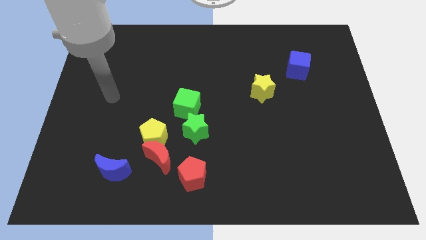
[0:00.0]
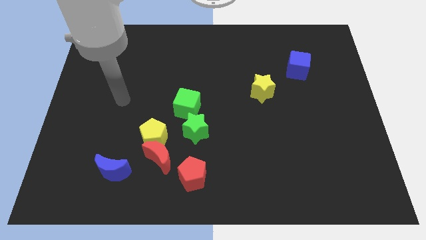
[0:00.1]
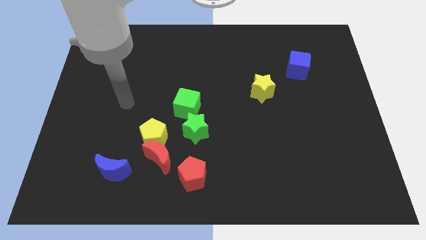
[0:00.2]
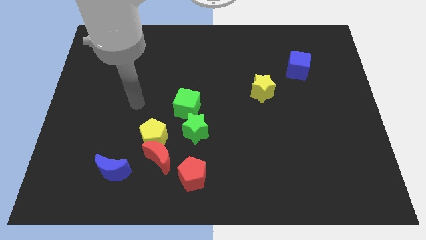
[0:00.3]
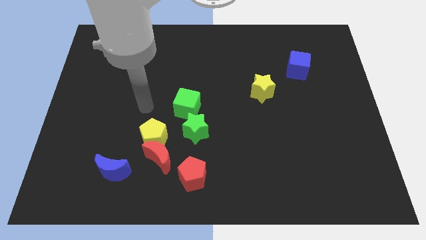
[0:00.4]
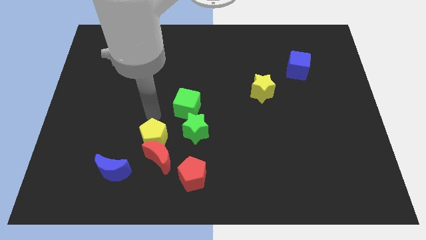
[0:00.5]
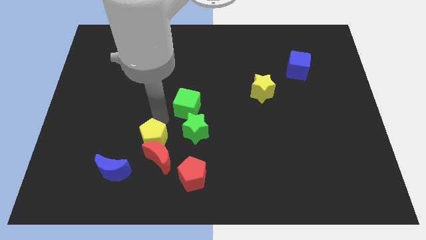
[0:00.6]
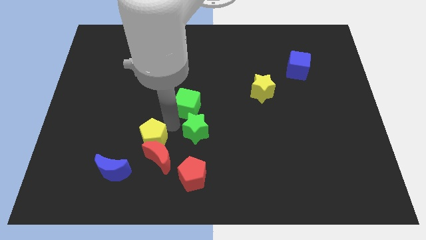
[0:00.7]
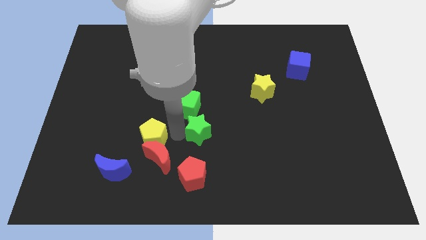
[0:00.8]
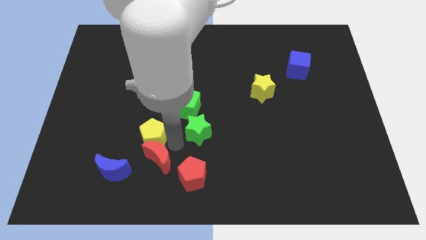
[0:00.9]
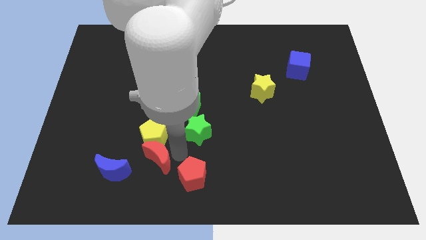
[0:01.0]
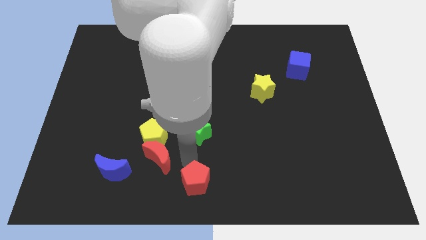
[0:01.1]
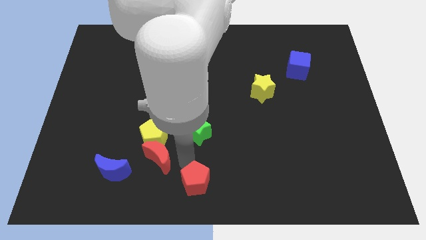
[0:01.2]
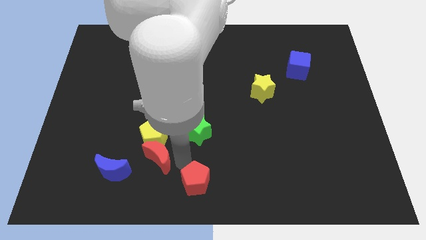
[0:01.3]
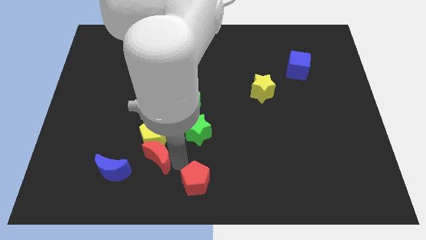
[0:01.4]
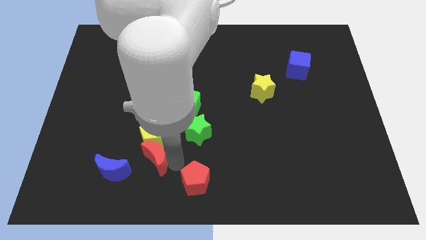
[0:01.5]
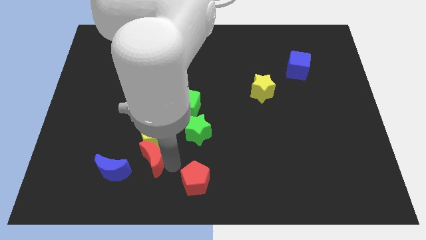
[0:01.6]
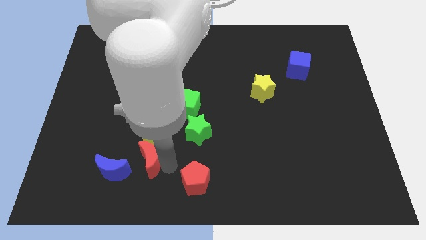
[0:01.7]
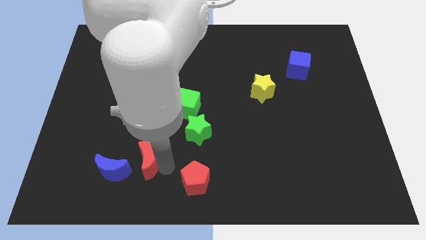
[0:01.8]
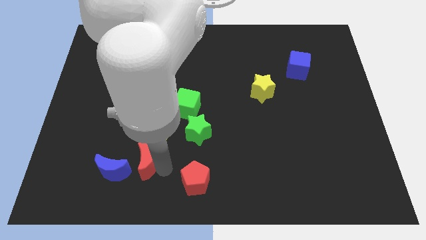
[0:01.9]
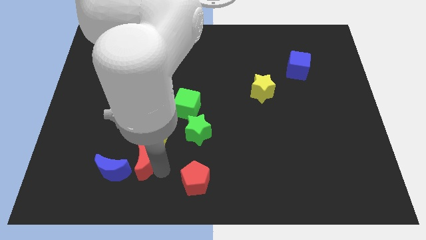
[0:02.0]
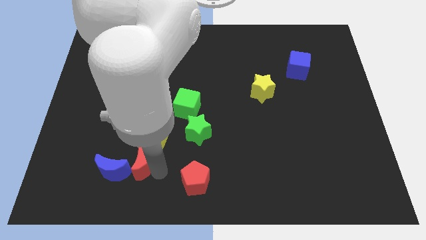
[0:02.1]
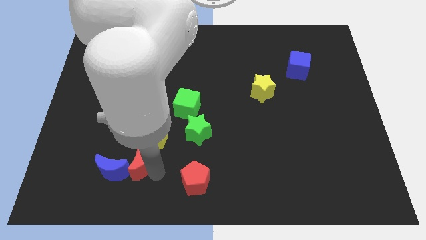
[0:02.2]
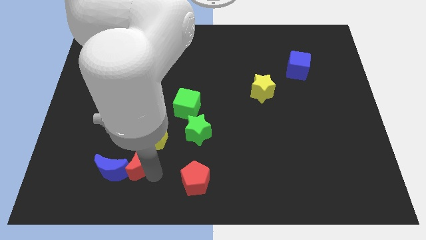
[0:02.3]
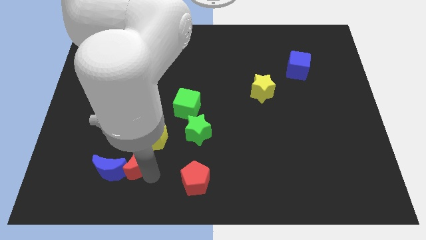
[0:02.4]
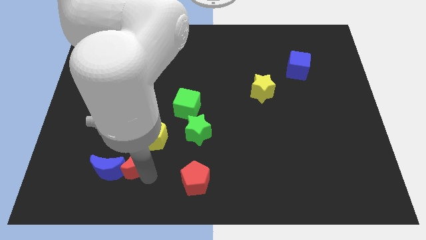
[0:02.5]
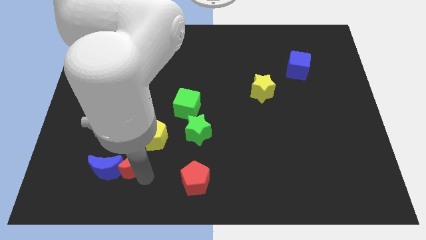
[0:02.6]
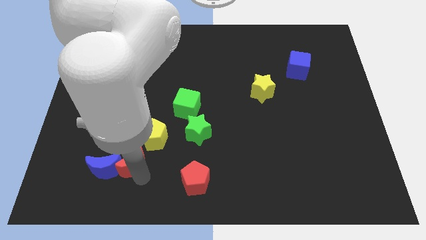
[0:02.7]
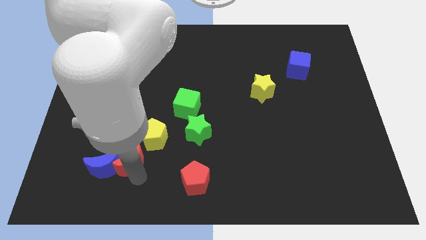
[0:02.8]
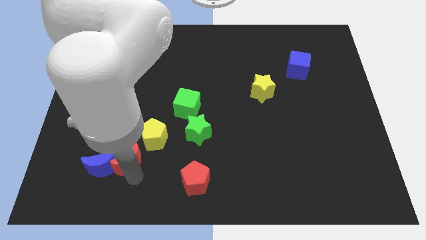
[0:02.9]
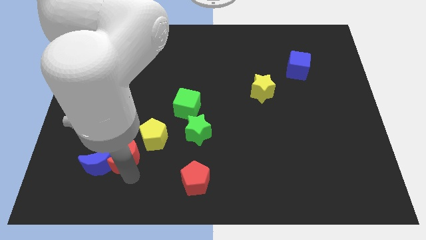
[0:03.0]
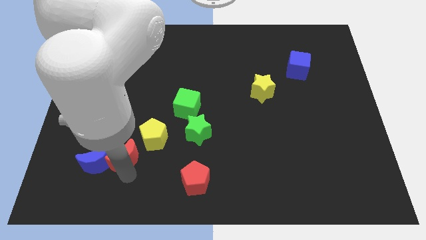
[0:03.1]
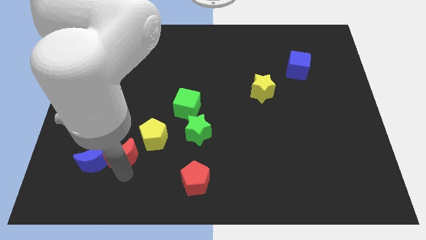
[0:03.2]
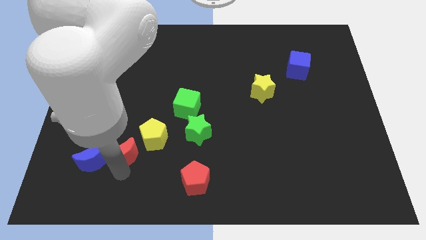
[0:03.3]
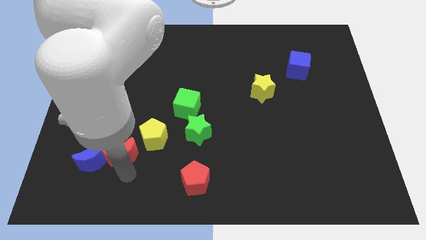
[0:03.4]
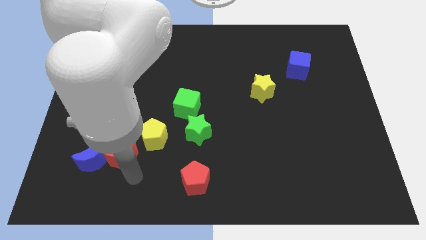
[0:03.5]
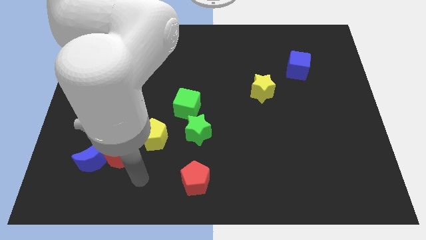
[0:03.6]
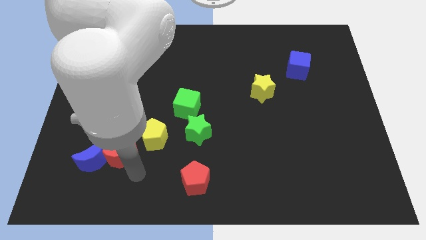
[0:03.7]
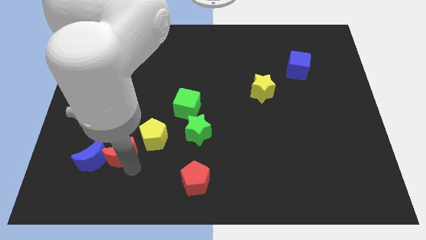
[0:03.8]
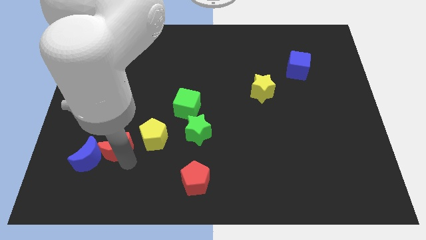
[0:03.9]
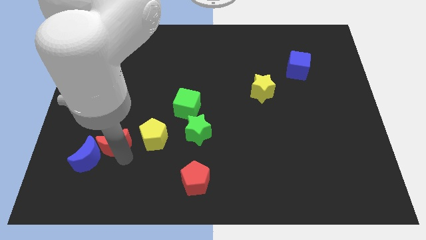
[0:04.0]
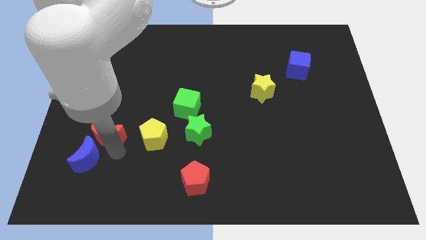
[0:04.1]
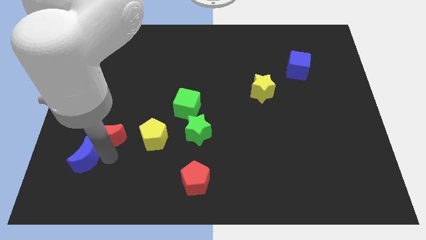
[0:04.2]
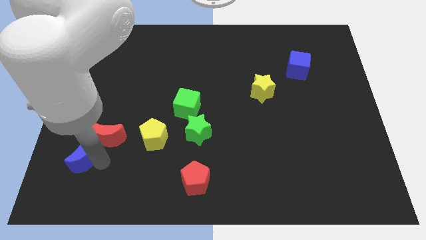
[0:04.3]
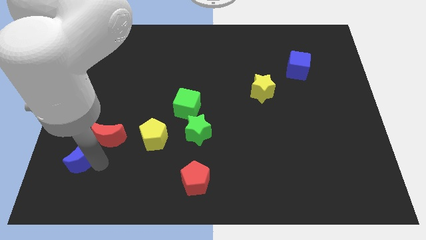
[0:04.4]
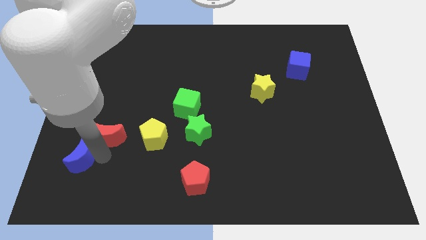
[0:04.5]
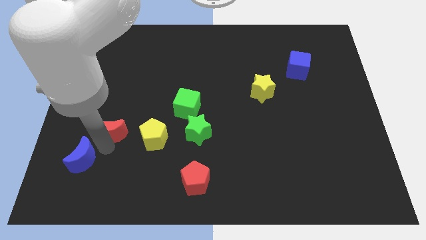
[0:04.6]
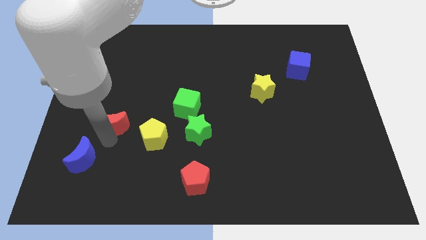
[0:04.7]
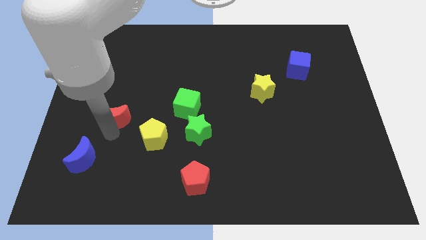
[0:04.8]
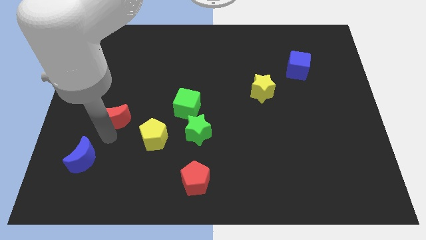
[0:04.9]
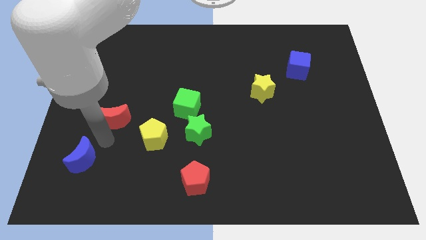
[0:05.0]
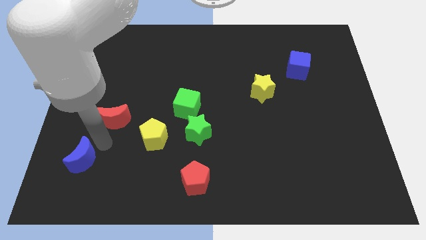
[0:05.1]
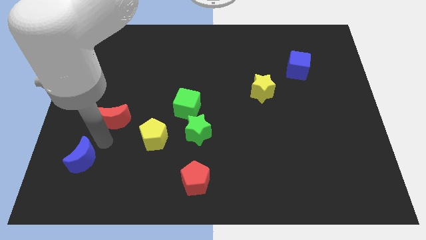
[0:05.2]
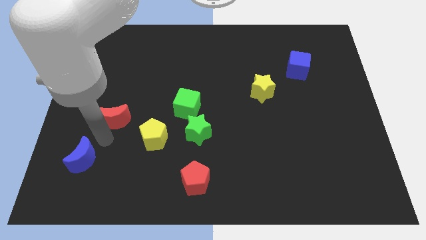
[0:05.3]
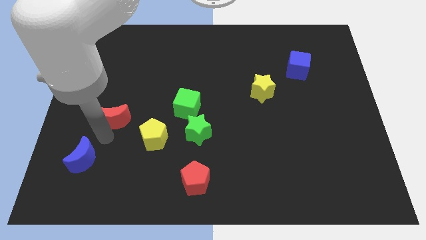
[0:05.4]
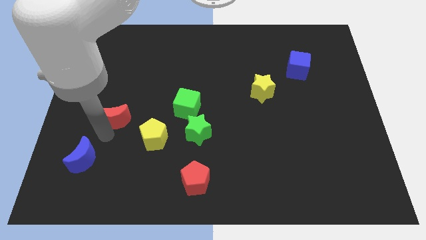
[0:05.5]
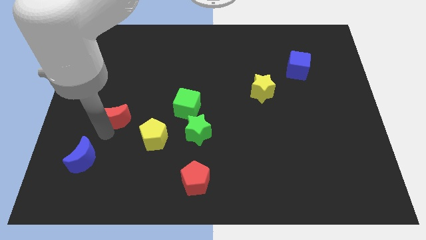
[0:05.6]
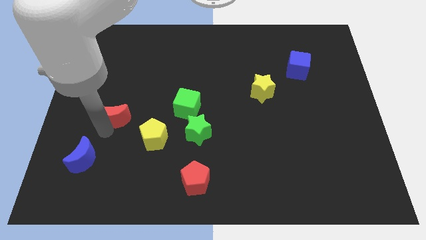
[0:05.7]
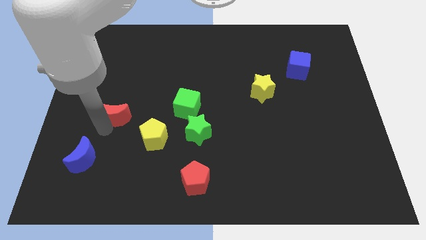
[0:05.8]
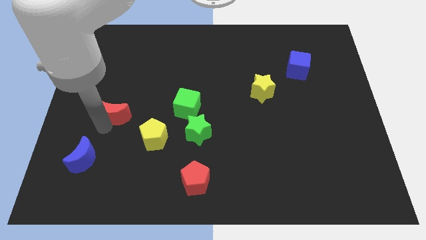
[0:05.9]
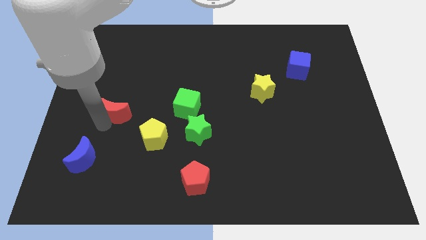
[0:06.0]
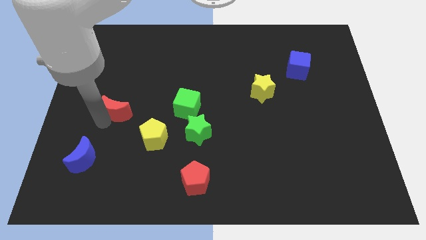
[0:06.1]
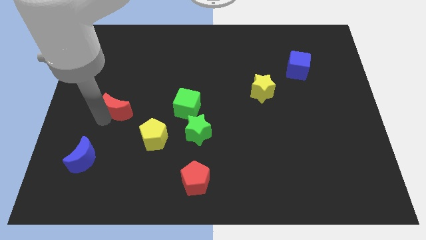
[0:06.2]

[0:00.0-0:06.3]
put the red moon to the left of the green cube
